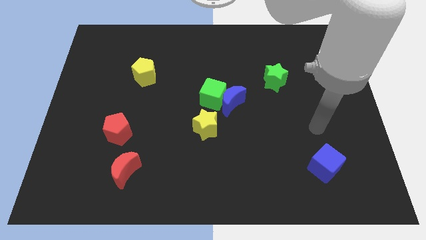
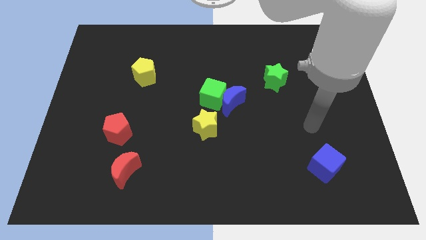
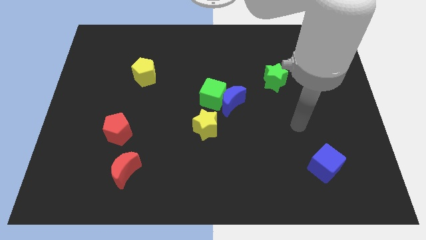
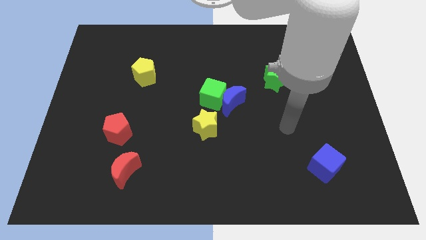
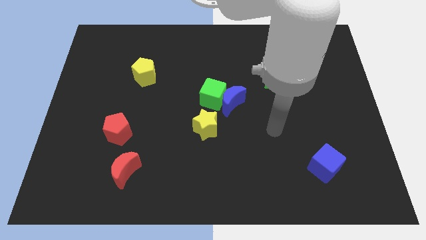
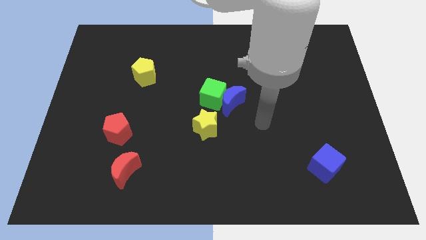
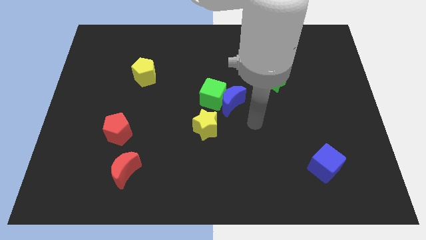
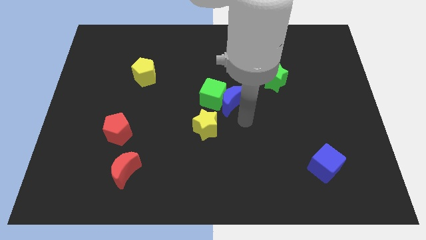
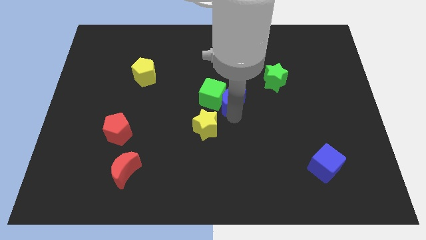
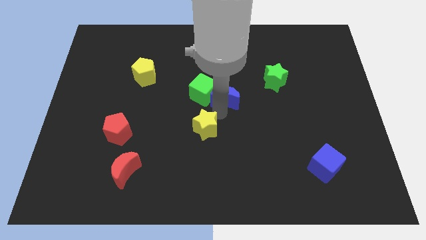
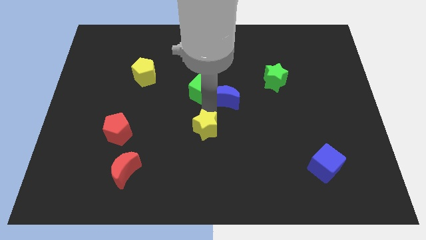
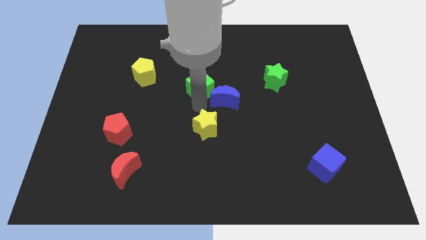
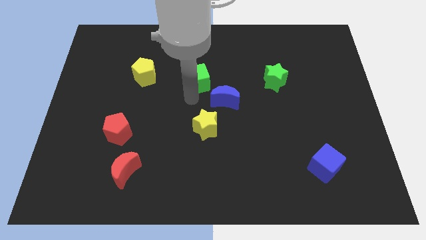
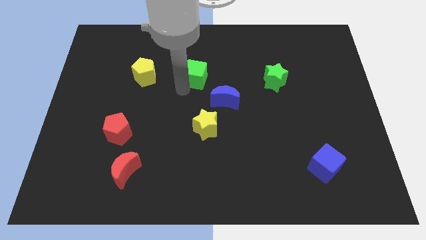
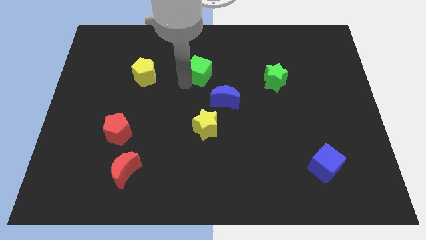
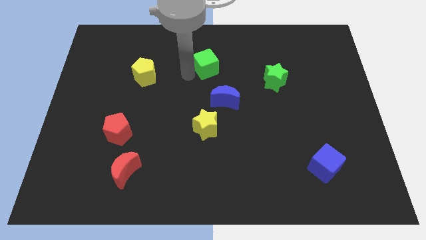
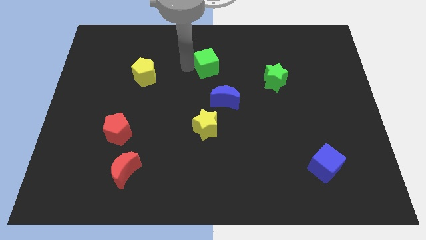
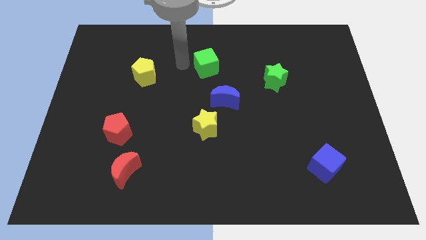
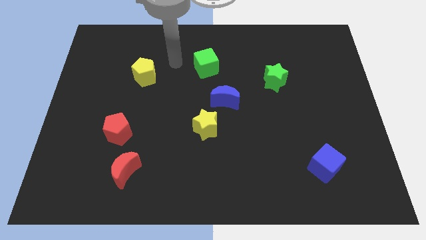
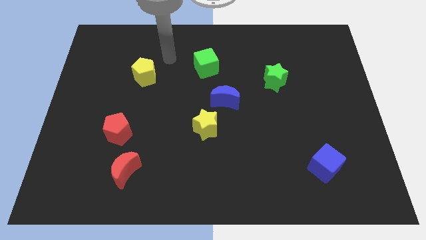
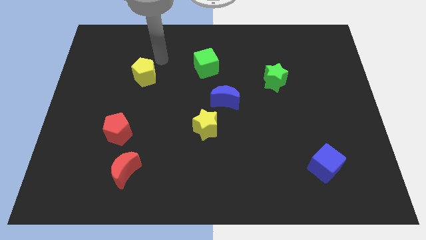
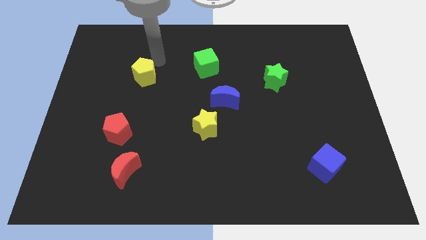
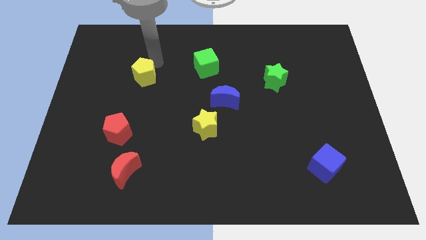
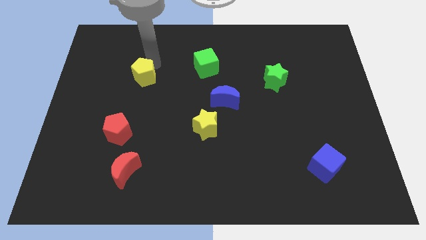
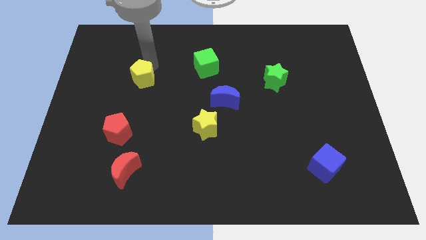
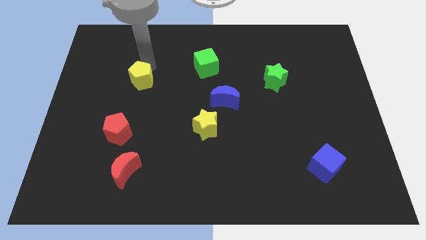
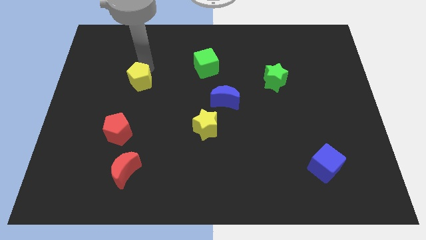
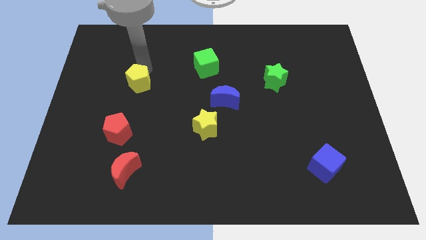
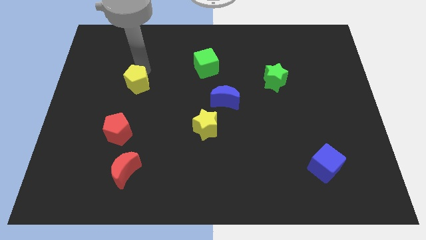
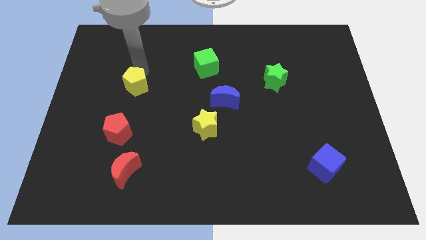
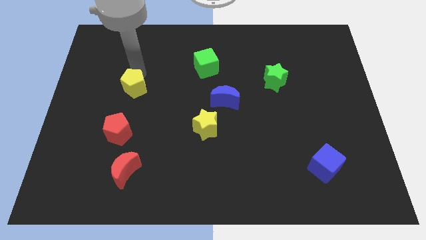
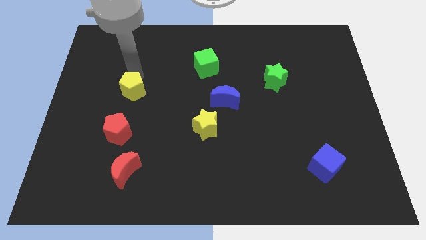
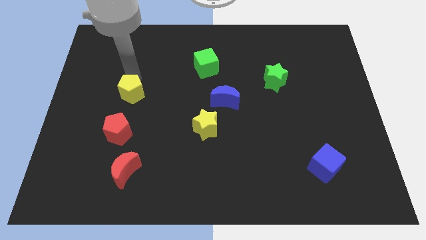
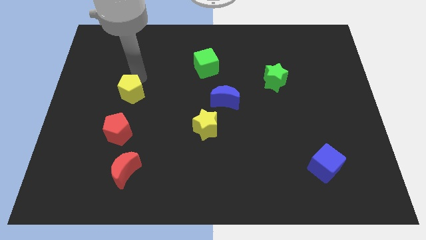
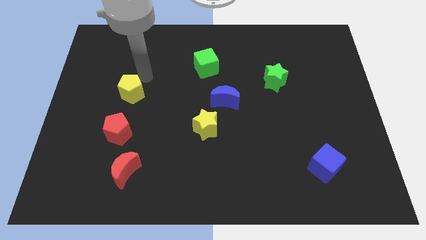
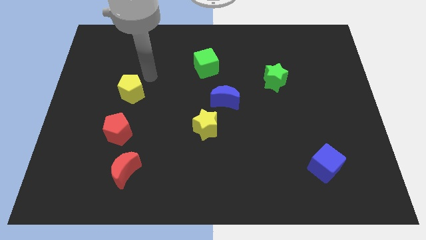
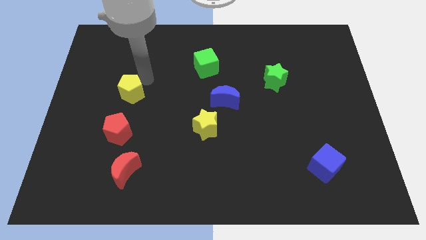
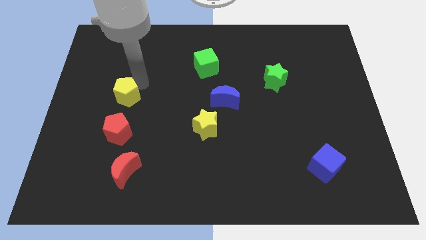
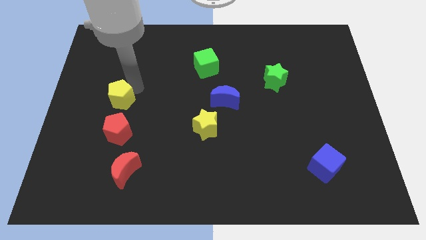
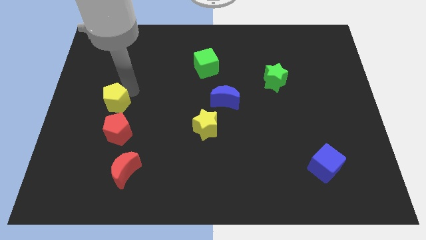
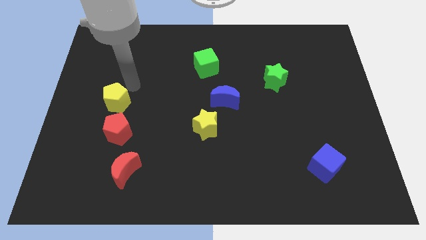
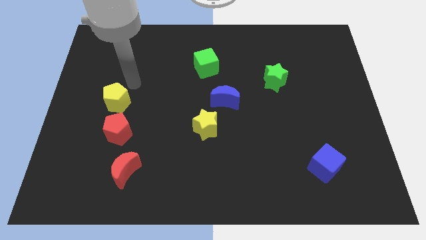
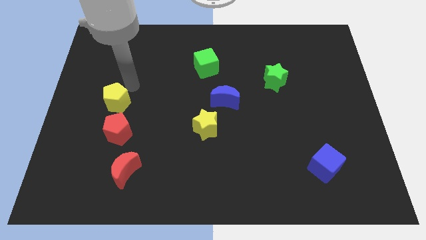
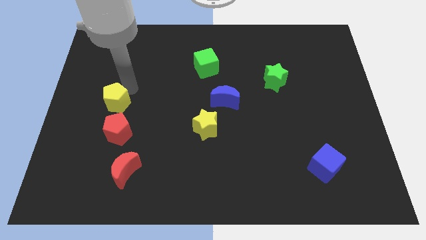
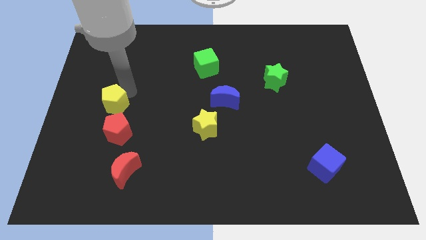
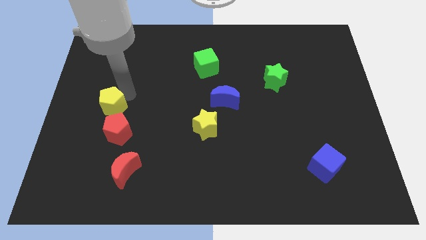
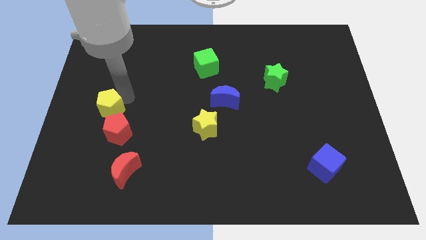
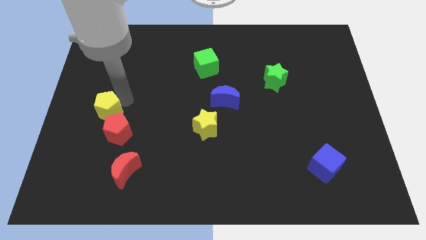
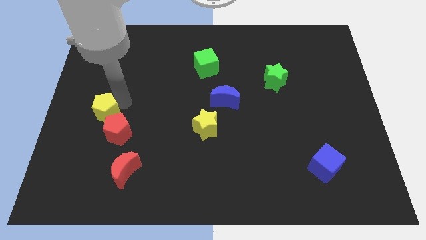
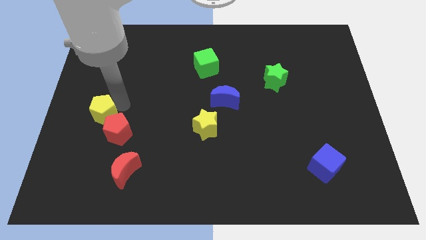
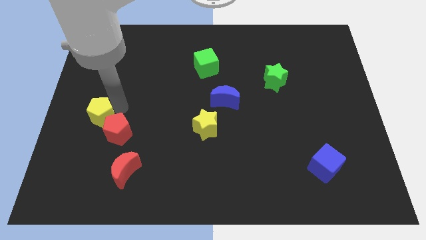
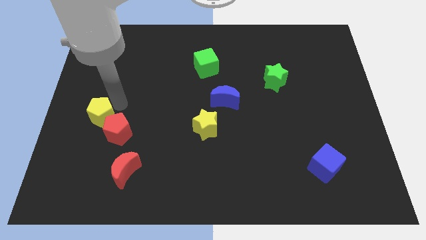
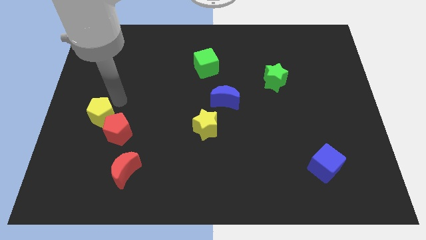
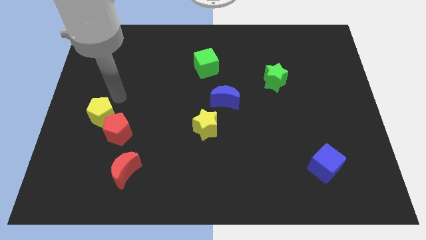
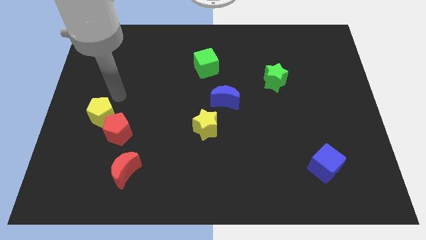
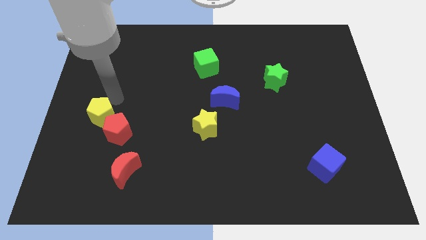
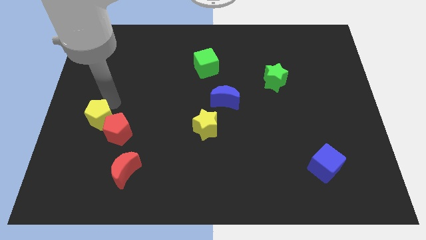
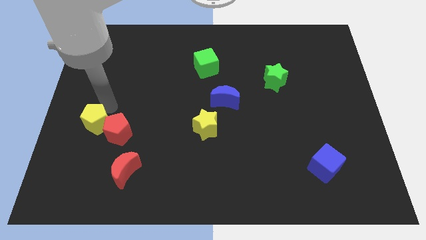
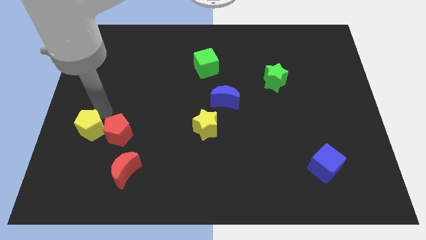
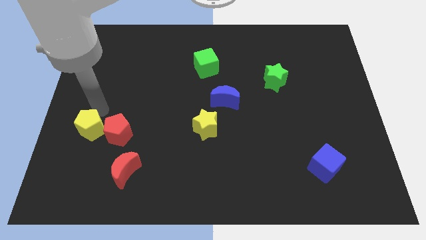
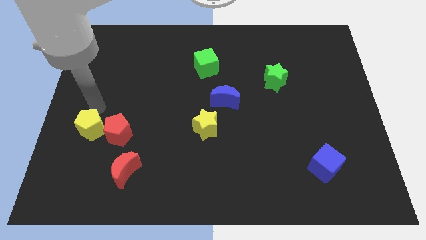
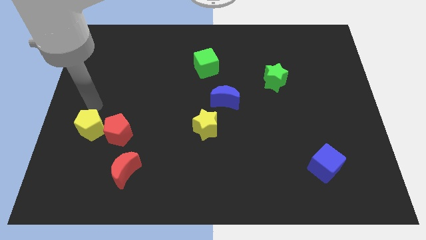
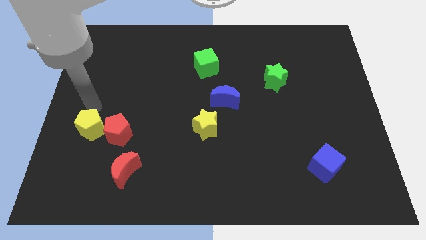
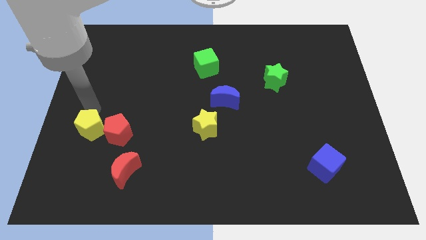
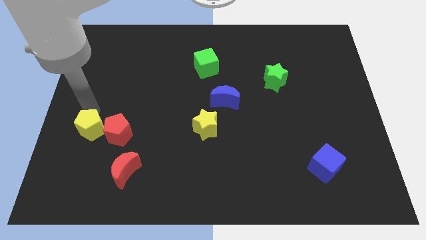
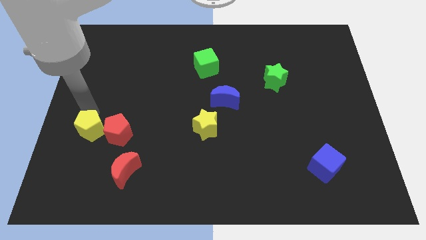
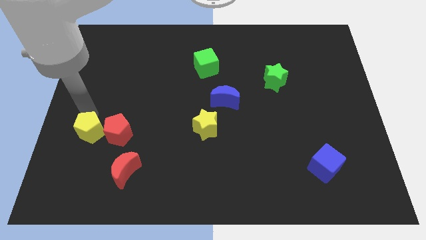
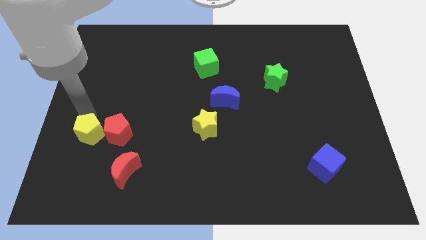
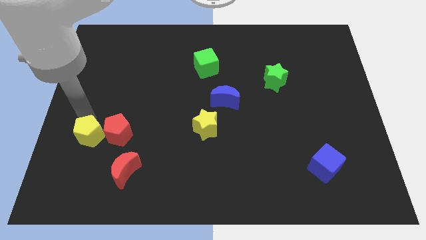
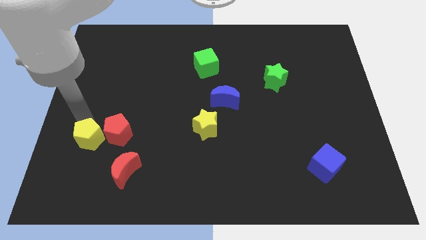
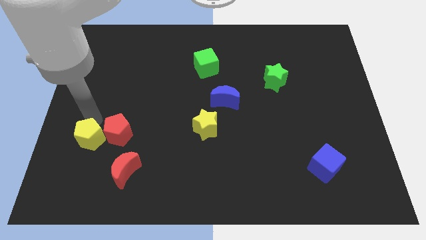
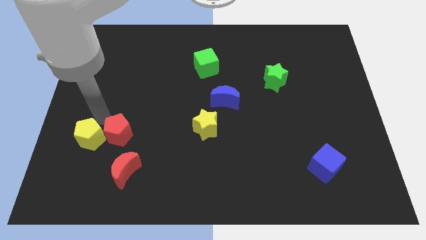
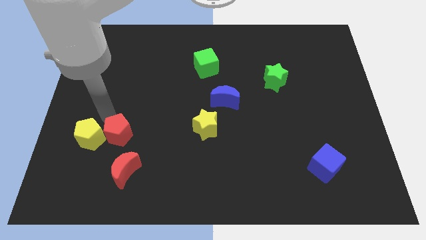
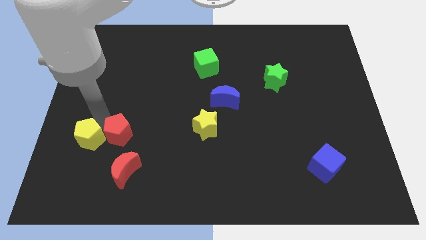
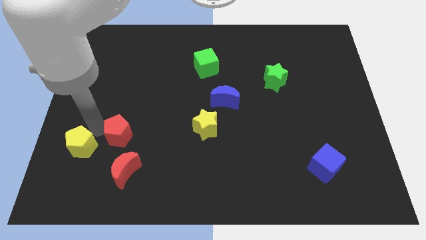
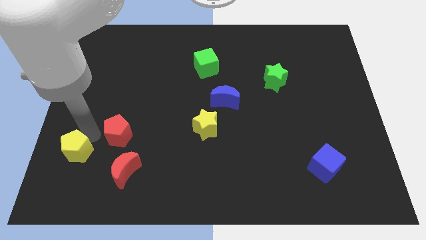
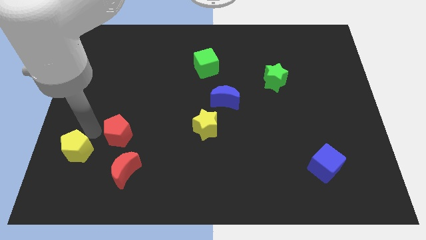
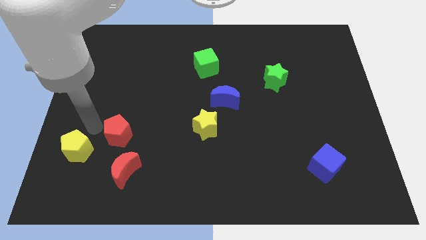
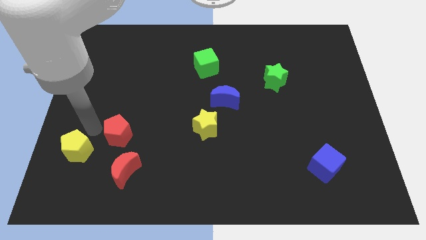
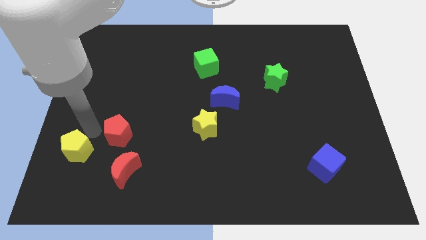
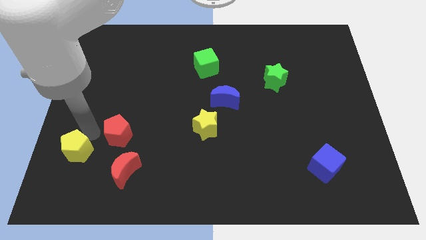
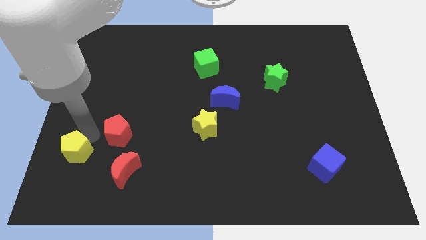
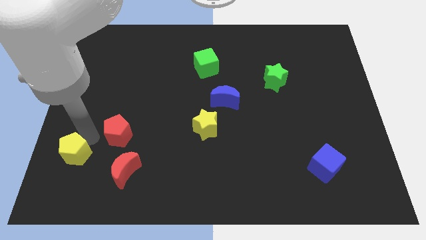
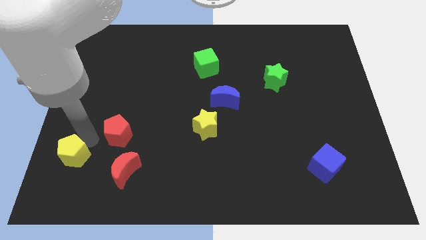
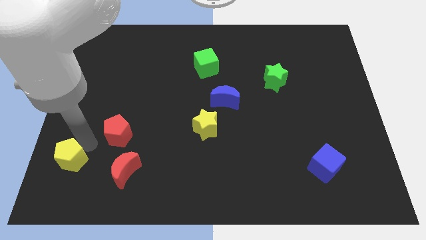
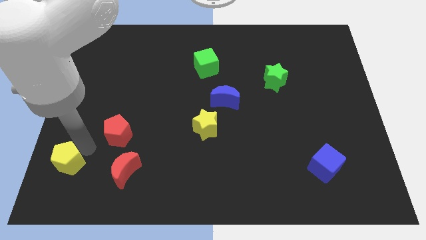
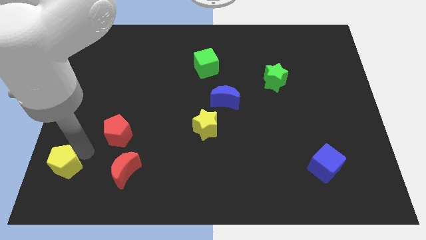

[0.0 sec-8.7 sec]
push the yellow pentagon to the bottom left corner
